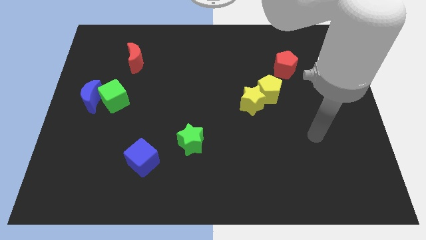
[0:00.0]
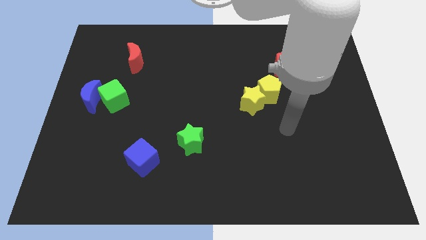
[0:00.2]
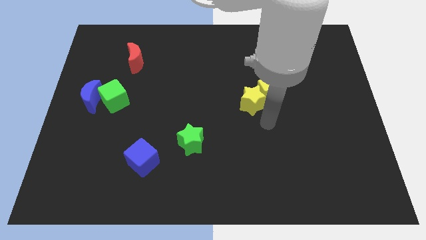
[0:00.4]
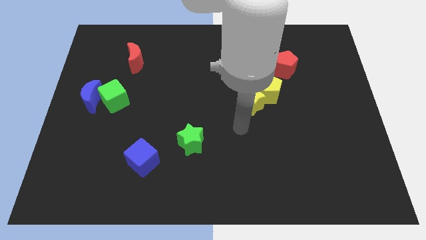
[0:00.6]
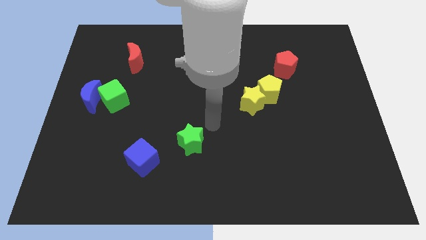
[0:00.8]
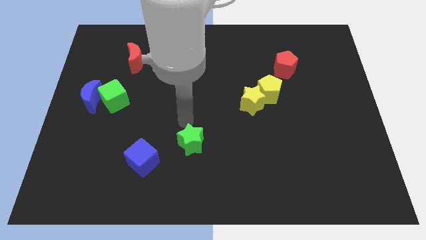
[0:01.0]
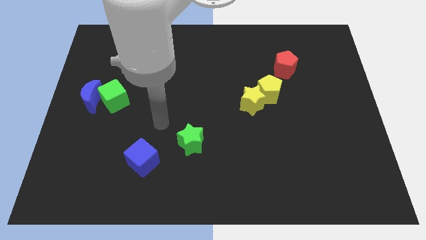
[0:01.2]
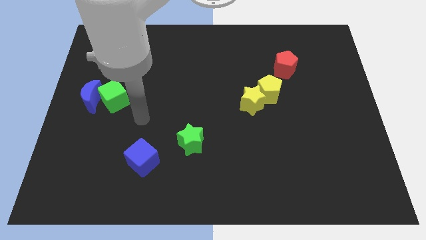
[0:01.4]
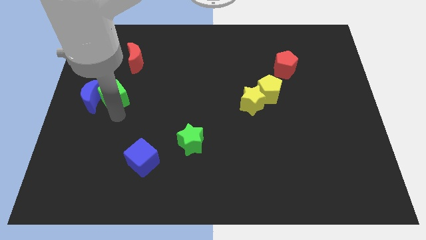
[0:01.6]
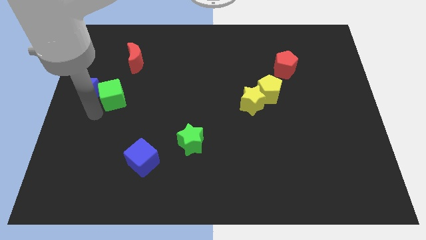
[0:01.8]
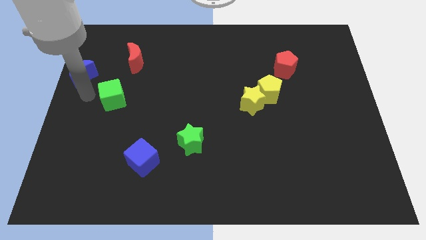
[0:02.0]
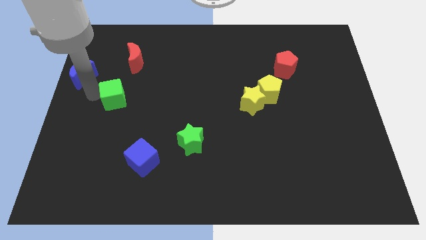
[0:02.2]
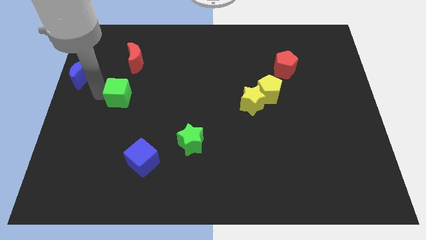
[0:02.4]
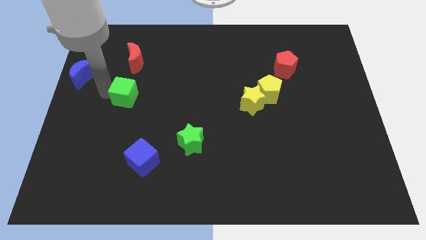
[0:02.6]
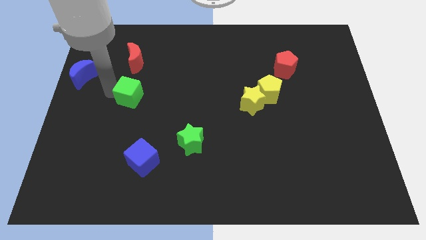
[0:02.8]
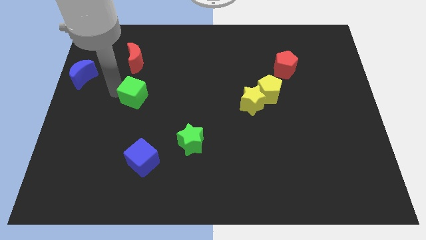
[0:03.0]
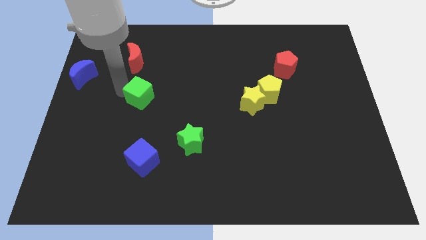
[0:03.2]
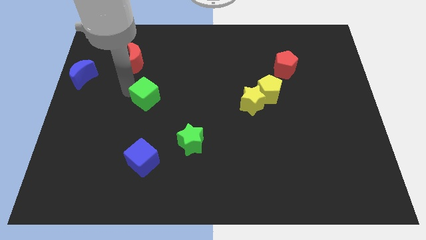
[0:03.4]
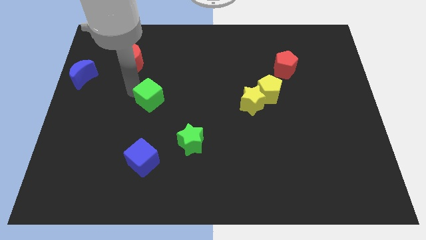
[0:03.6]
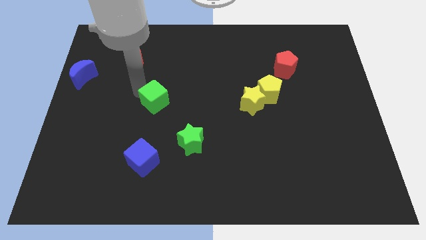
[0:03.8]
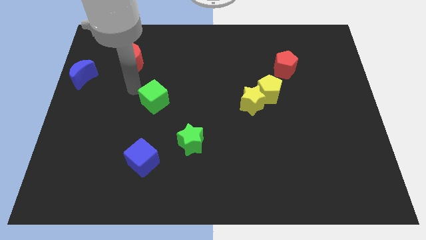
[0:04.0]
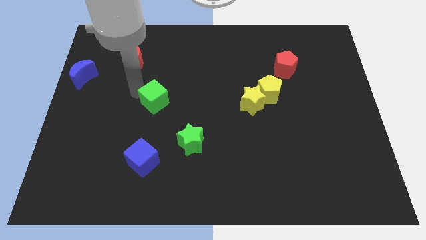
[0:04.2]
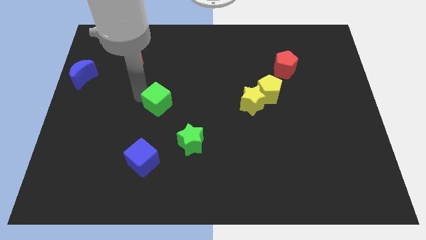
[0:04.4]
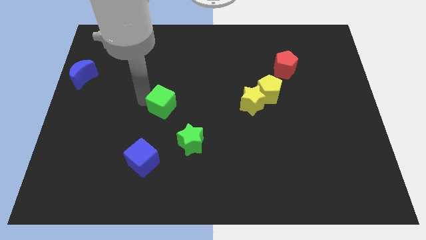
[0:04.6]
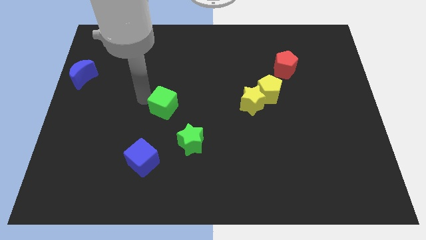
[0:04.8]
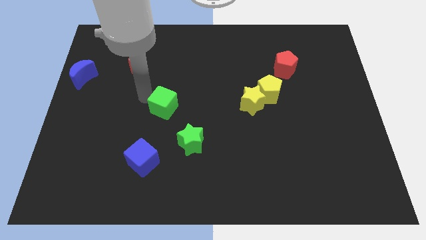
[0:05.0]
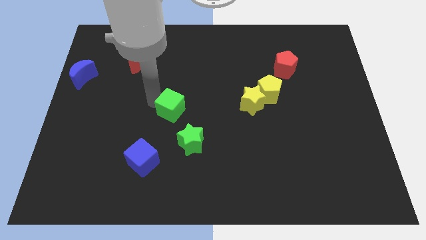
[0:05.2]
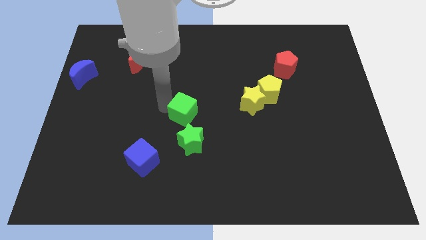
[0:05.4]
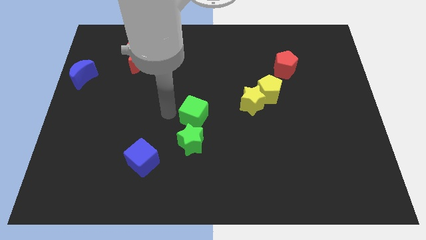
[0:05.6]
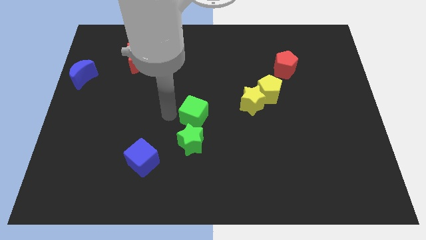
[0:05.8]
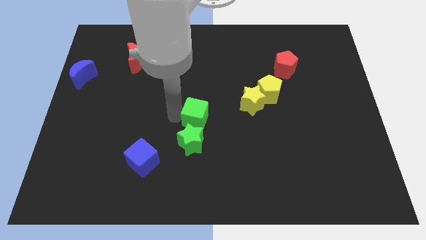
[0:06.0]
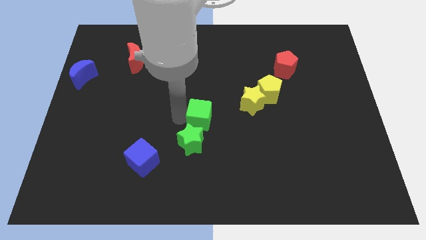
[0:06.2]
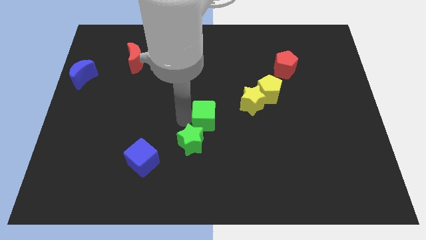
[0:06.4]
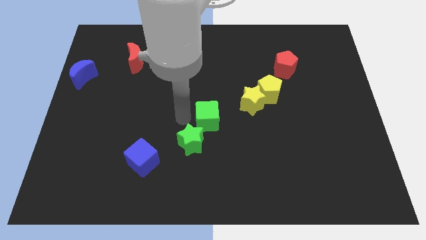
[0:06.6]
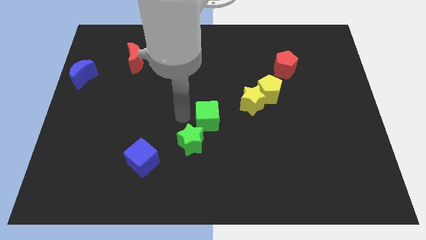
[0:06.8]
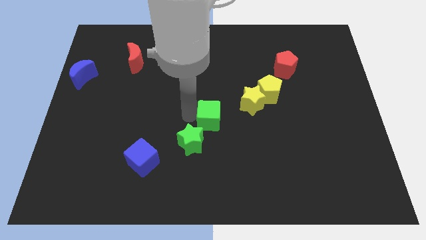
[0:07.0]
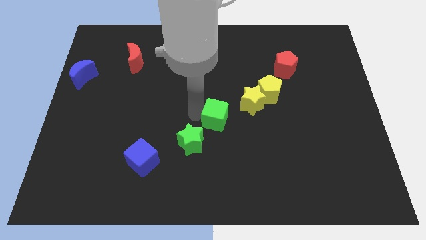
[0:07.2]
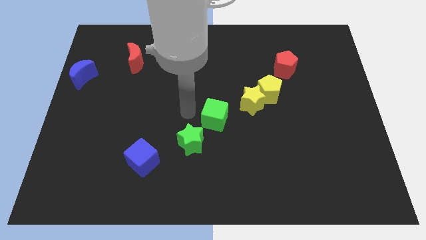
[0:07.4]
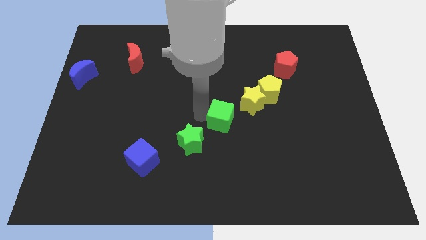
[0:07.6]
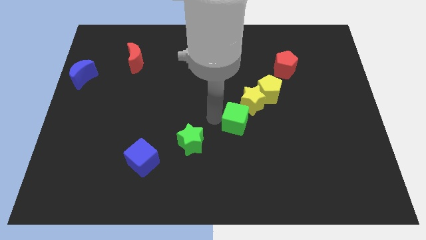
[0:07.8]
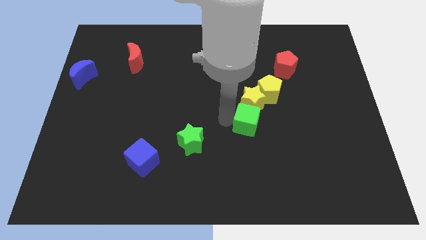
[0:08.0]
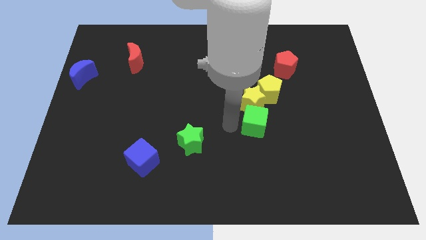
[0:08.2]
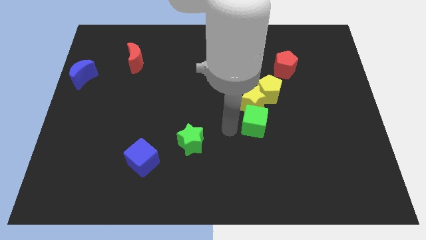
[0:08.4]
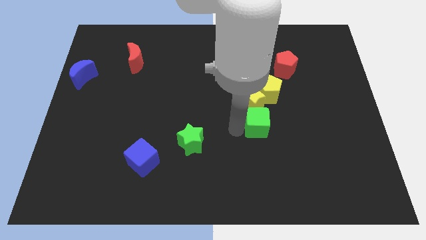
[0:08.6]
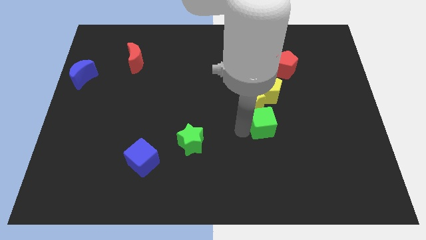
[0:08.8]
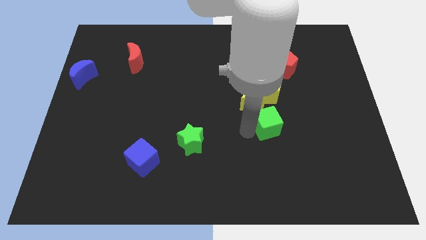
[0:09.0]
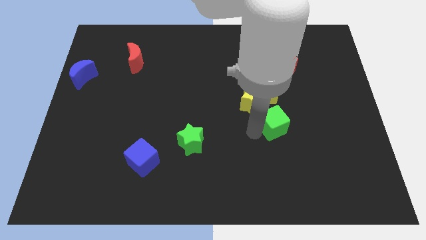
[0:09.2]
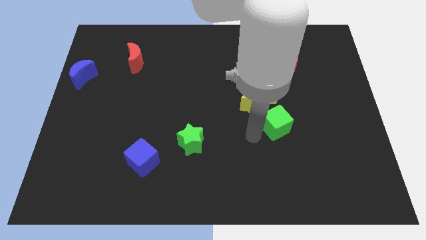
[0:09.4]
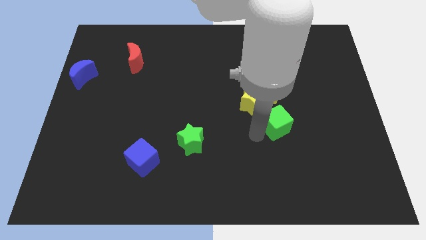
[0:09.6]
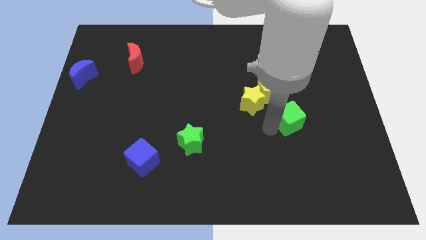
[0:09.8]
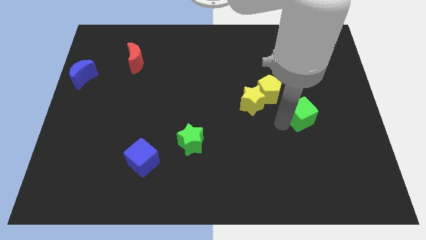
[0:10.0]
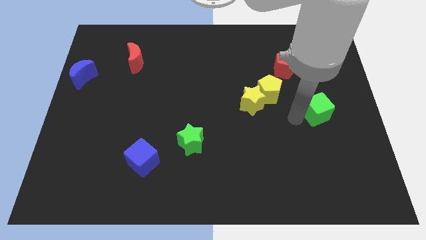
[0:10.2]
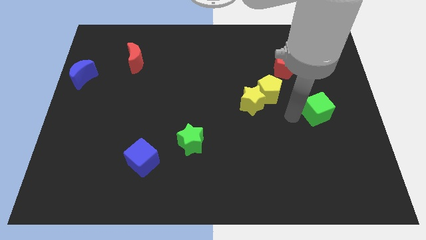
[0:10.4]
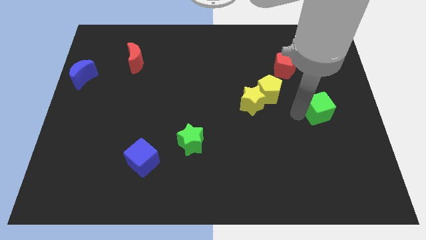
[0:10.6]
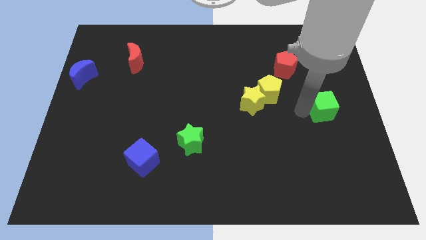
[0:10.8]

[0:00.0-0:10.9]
move the green cube to the center right
